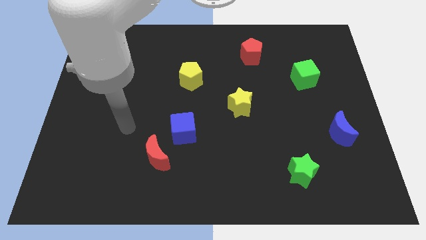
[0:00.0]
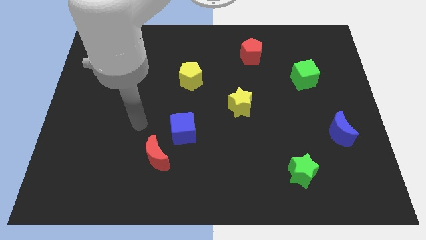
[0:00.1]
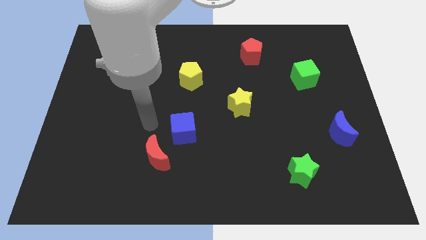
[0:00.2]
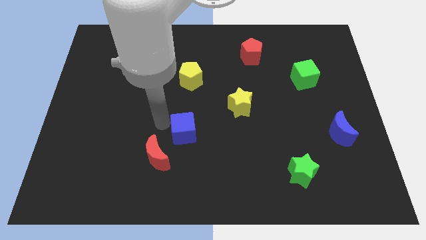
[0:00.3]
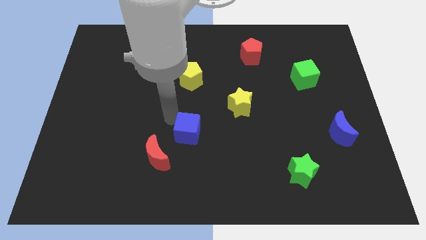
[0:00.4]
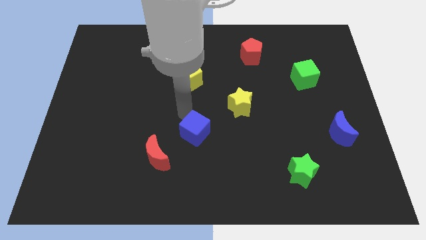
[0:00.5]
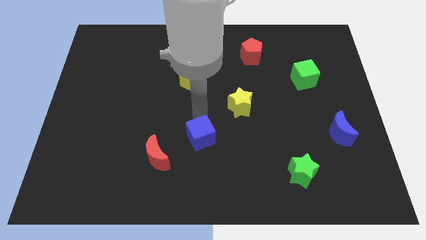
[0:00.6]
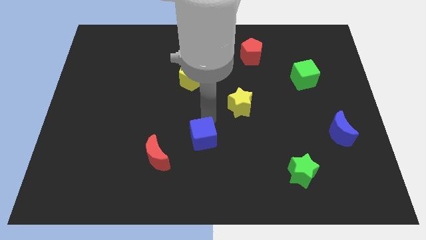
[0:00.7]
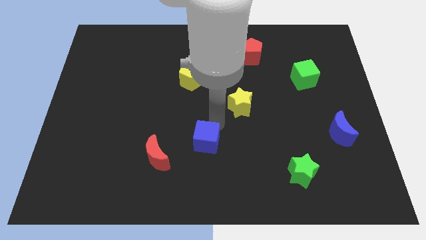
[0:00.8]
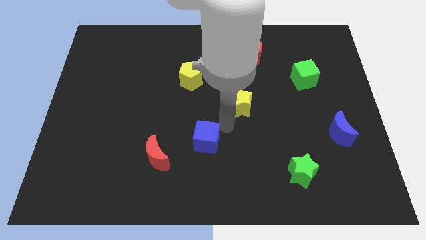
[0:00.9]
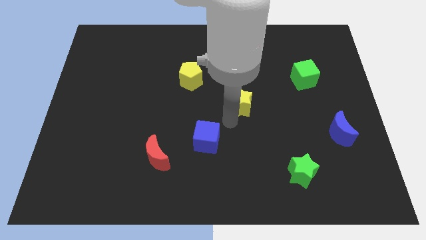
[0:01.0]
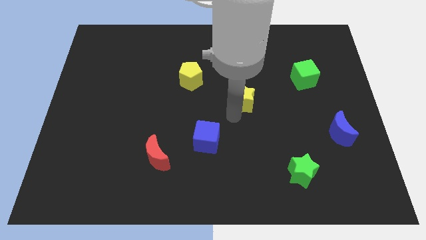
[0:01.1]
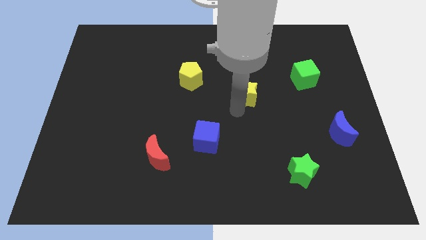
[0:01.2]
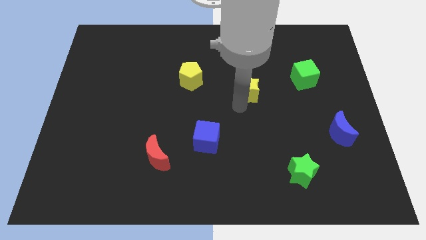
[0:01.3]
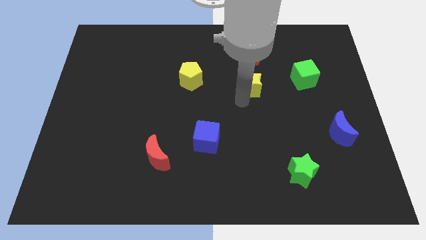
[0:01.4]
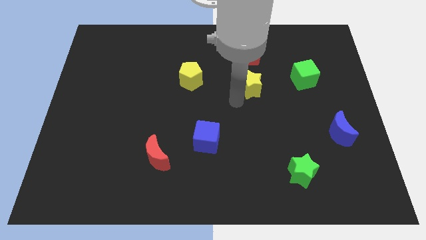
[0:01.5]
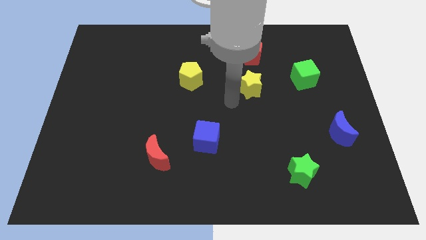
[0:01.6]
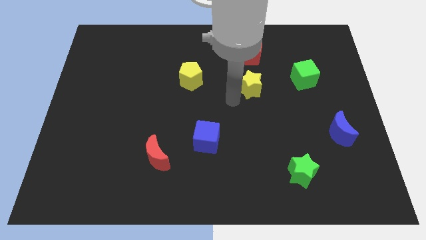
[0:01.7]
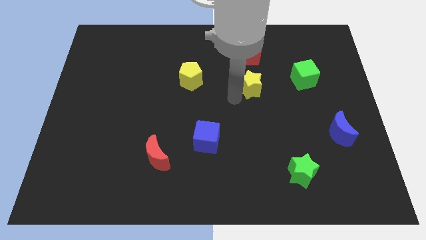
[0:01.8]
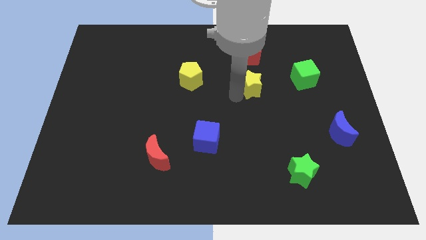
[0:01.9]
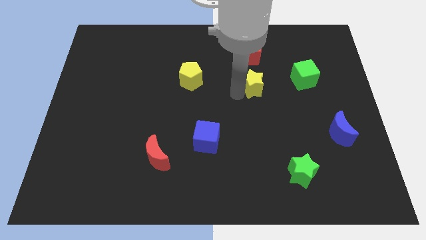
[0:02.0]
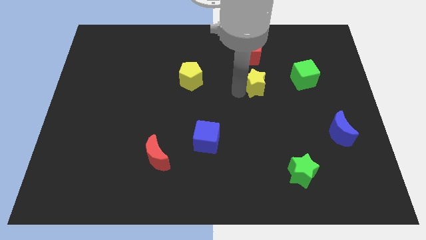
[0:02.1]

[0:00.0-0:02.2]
move the yellow star slightly diagonally up and to the right

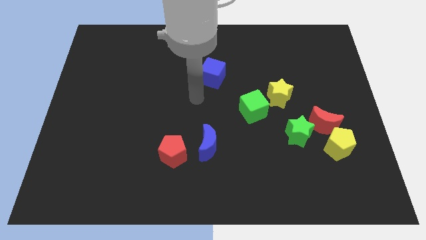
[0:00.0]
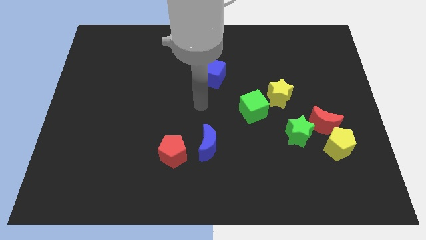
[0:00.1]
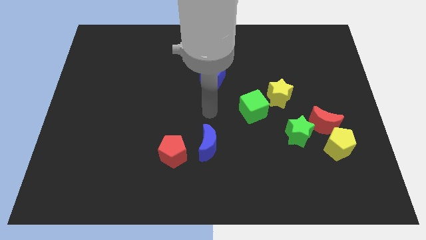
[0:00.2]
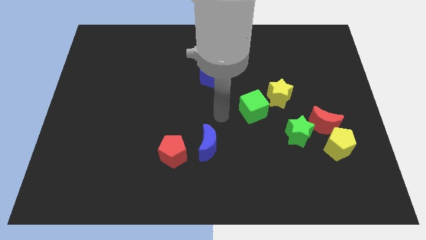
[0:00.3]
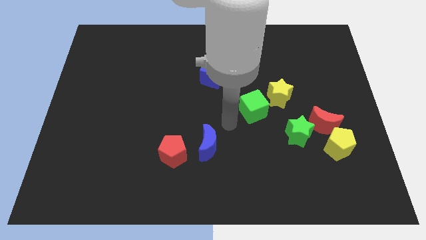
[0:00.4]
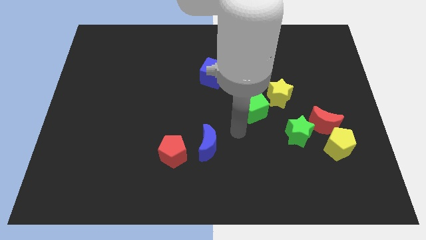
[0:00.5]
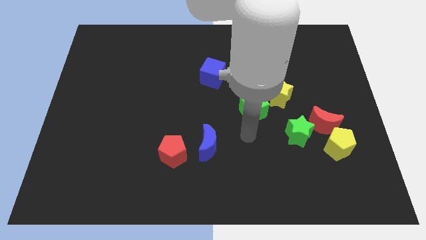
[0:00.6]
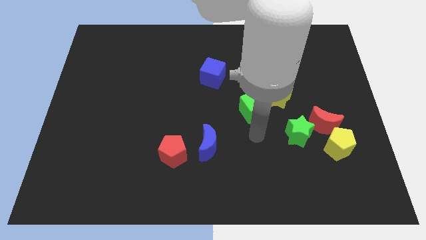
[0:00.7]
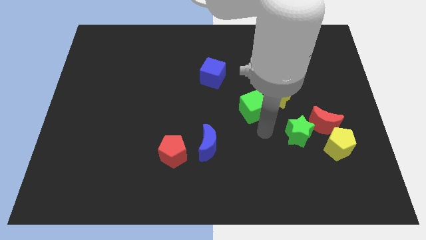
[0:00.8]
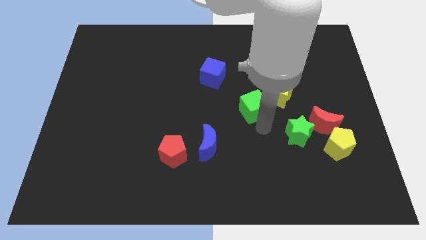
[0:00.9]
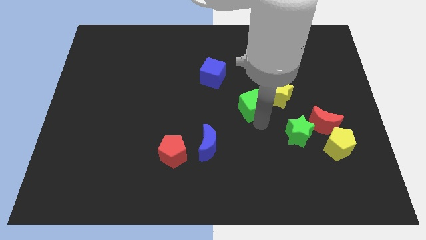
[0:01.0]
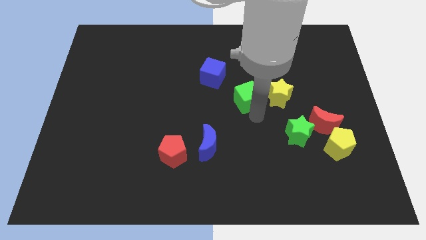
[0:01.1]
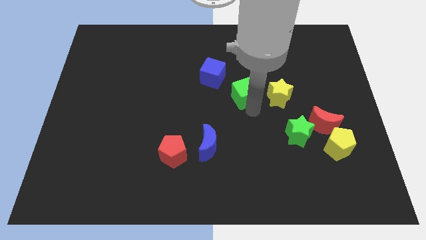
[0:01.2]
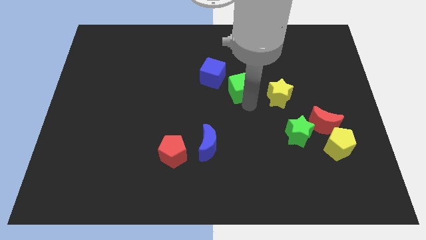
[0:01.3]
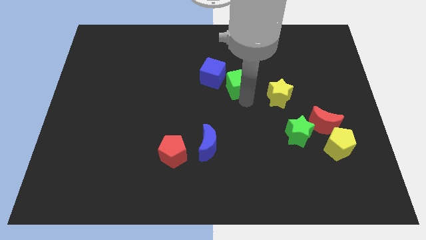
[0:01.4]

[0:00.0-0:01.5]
slightly push the green cube up and then to the left

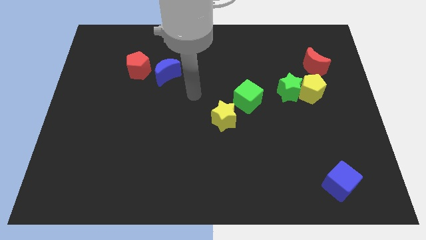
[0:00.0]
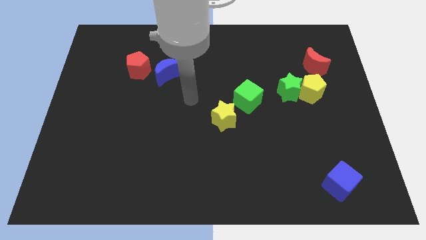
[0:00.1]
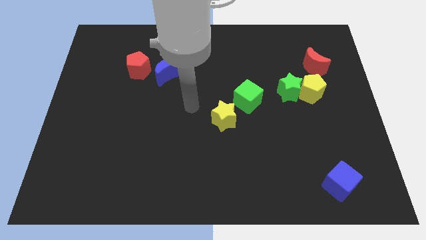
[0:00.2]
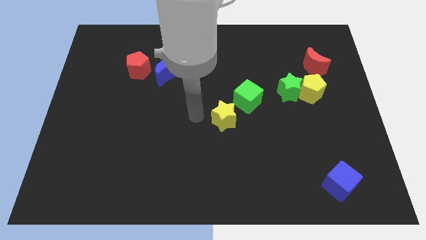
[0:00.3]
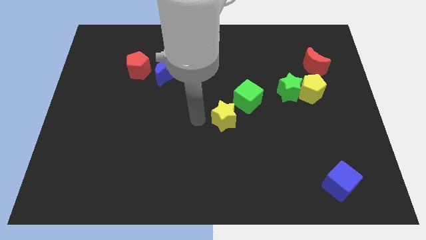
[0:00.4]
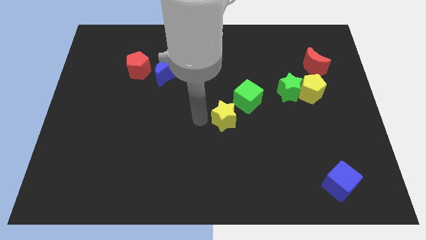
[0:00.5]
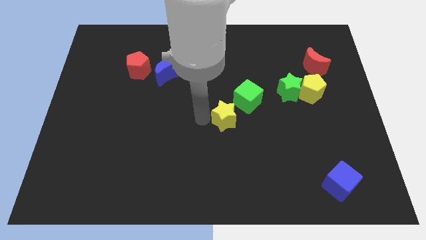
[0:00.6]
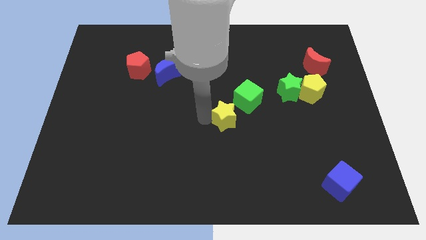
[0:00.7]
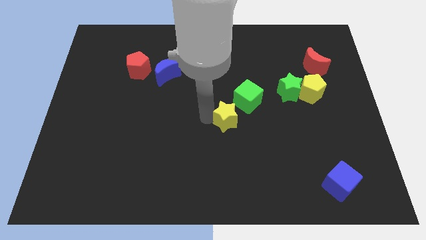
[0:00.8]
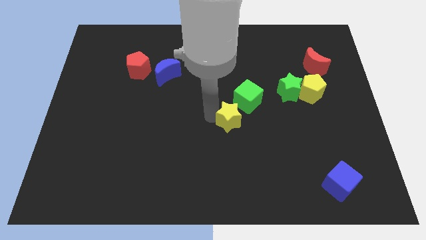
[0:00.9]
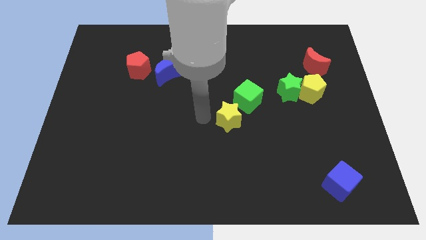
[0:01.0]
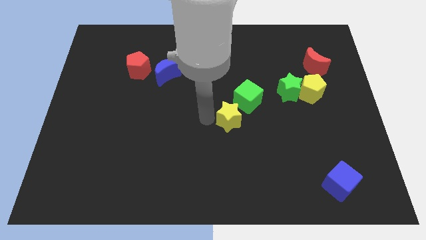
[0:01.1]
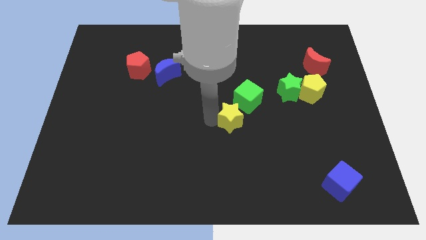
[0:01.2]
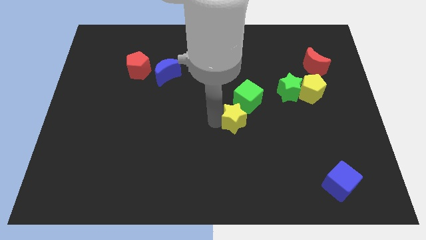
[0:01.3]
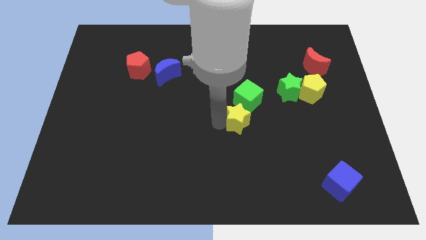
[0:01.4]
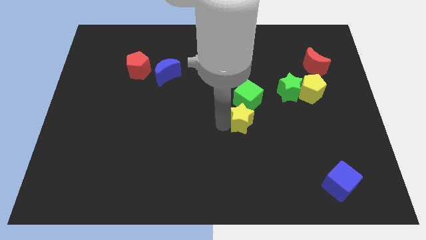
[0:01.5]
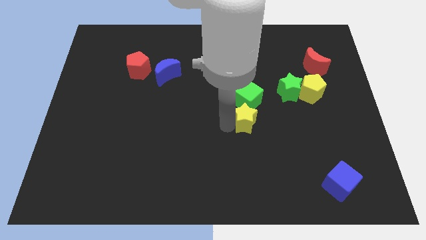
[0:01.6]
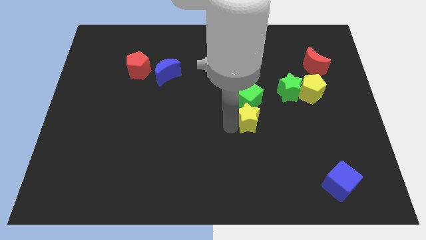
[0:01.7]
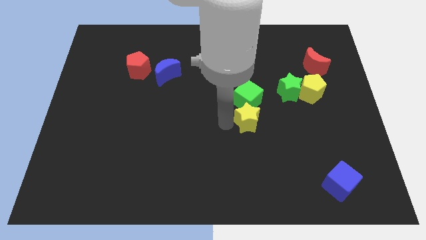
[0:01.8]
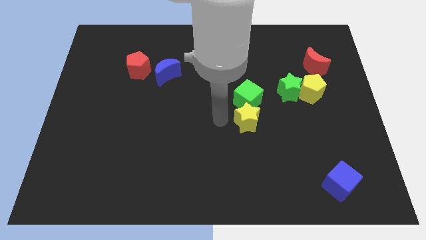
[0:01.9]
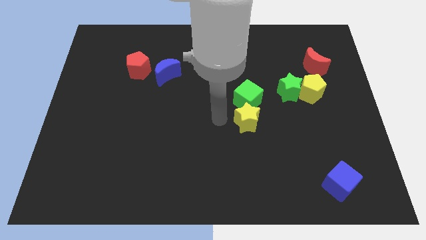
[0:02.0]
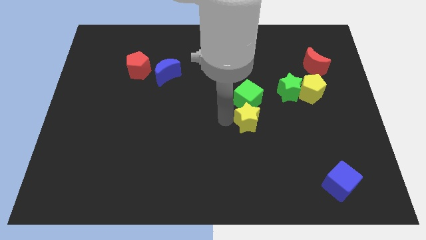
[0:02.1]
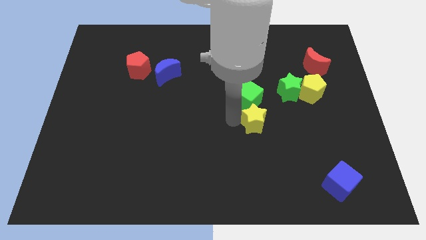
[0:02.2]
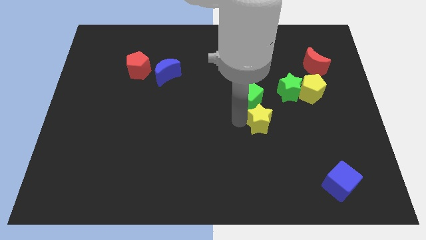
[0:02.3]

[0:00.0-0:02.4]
slide the yellow star right somewhat

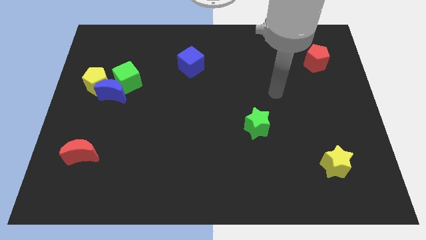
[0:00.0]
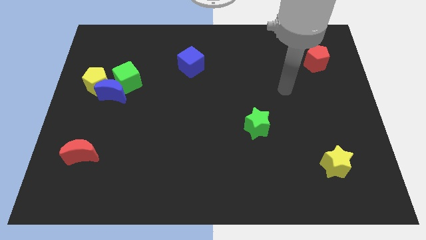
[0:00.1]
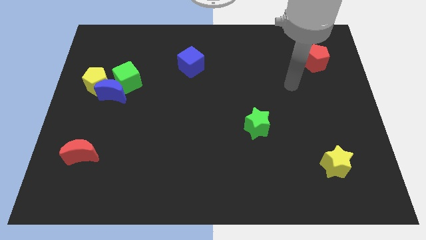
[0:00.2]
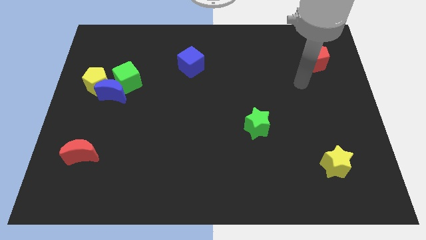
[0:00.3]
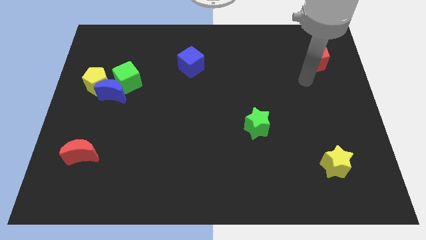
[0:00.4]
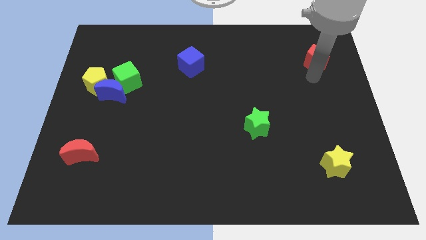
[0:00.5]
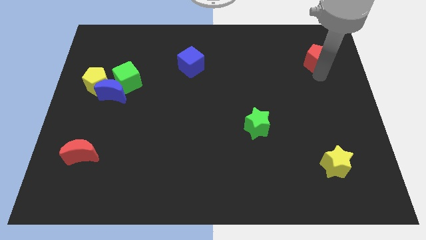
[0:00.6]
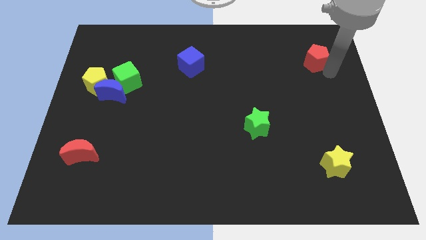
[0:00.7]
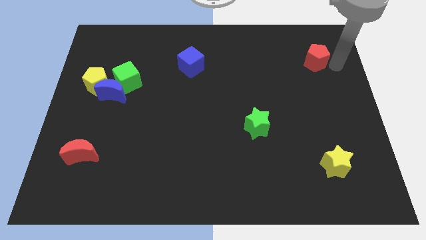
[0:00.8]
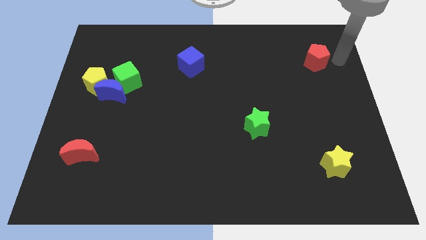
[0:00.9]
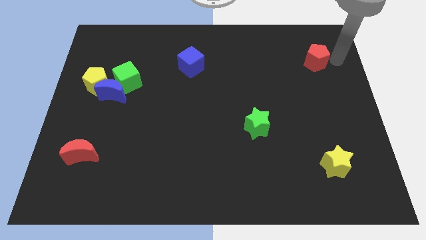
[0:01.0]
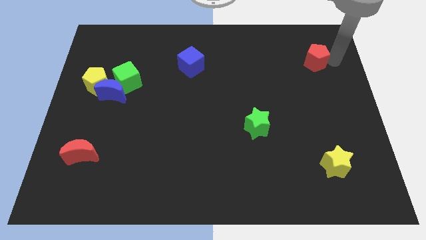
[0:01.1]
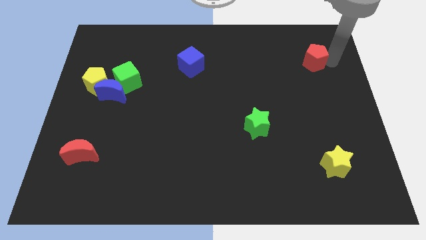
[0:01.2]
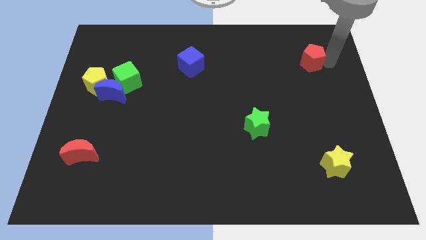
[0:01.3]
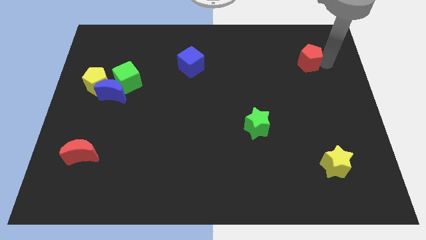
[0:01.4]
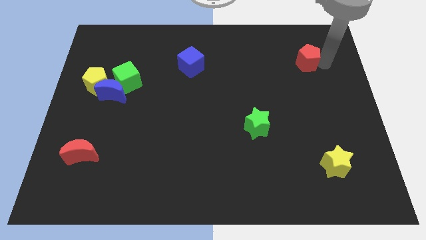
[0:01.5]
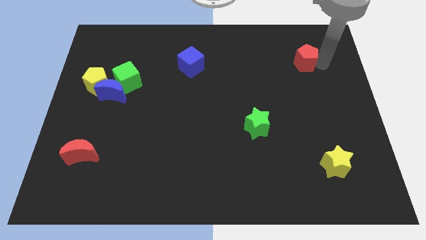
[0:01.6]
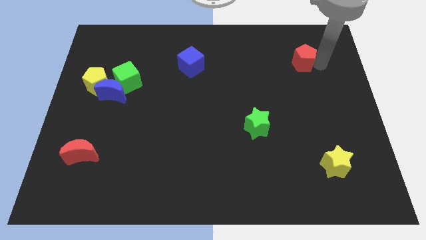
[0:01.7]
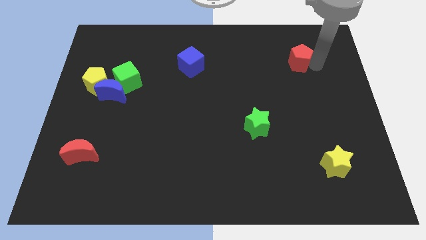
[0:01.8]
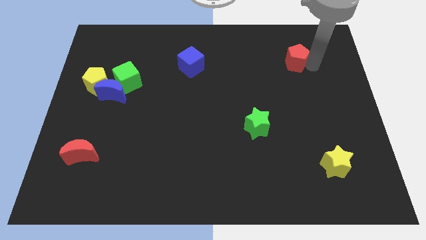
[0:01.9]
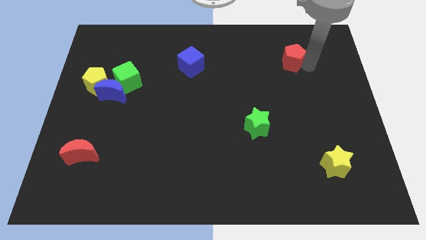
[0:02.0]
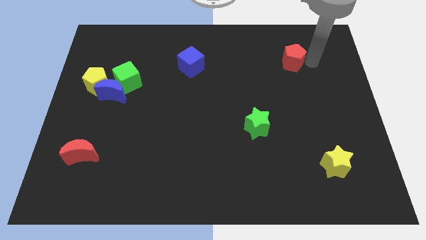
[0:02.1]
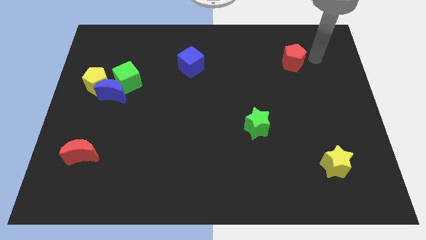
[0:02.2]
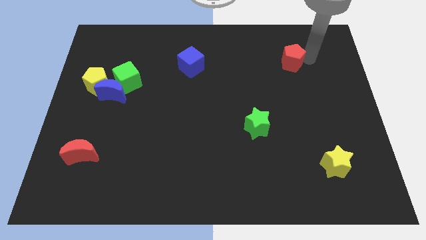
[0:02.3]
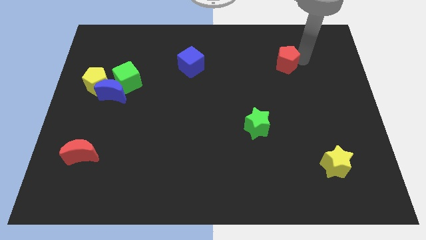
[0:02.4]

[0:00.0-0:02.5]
move the red pentagon slightly to the left
